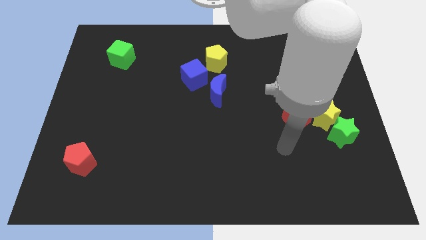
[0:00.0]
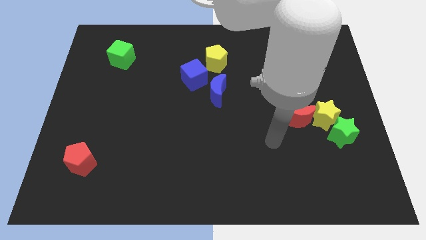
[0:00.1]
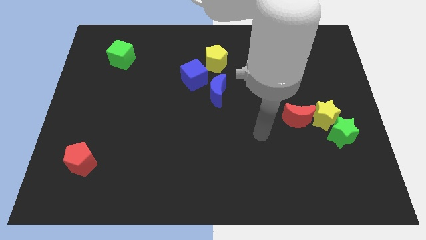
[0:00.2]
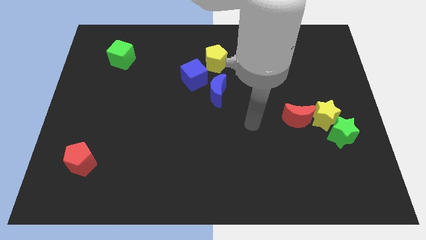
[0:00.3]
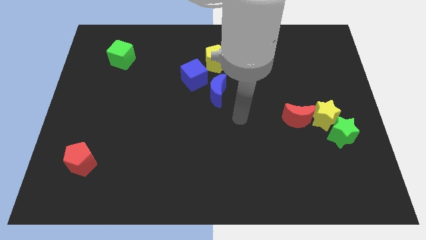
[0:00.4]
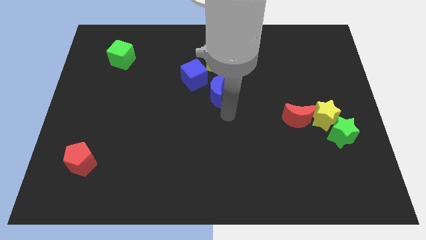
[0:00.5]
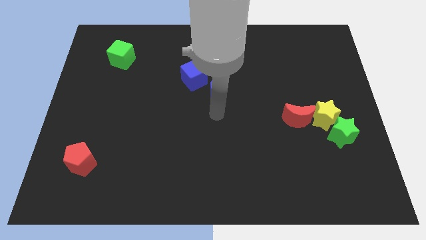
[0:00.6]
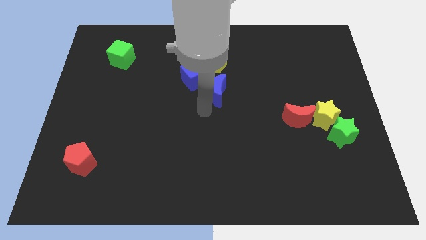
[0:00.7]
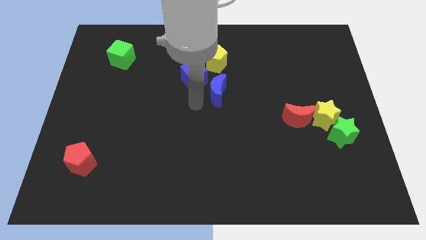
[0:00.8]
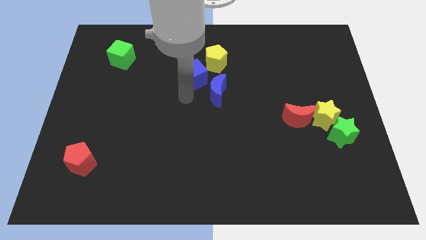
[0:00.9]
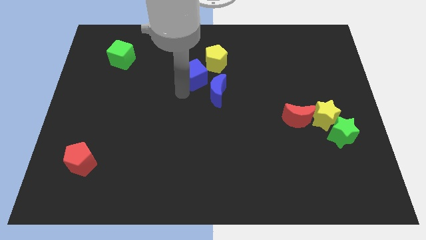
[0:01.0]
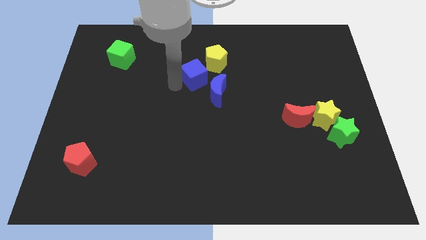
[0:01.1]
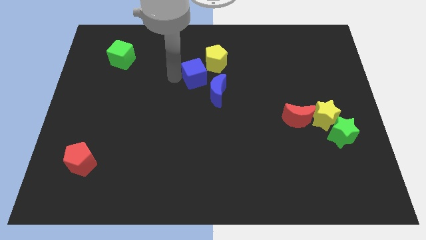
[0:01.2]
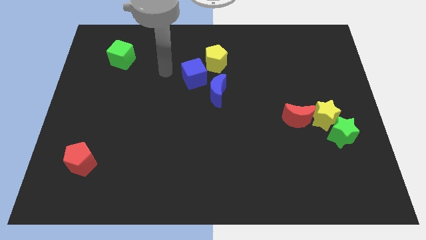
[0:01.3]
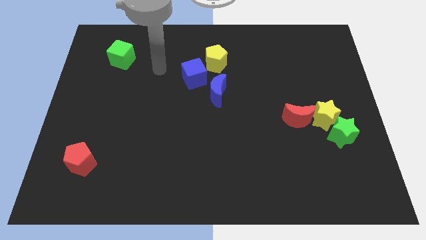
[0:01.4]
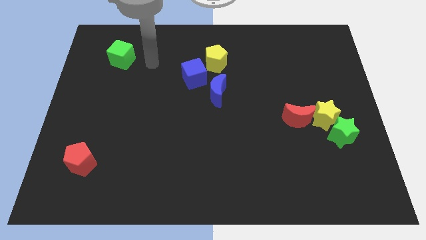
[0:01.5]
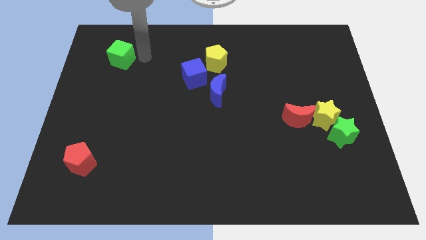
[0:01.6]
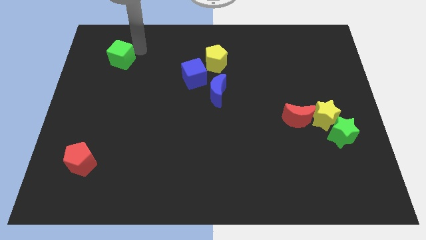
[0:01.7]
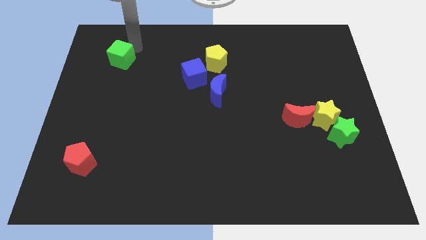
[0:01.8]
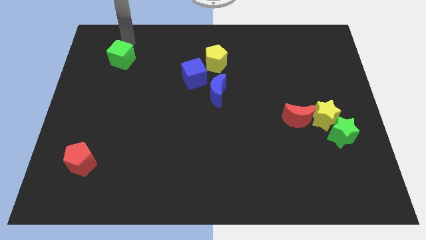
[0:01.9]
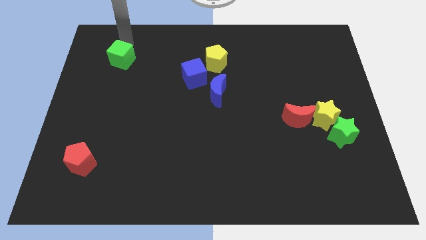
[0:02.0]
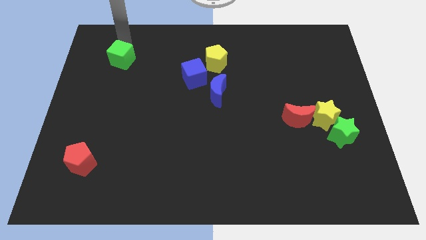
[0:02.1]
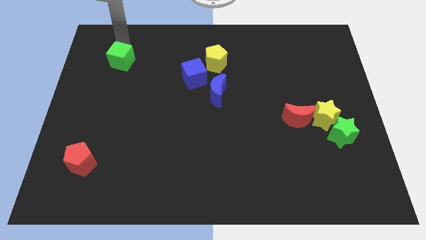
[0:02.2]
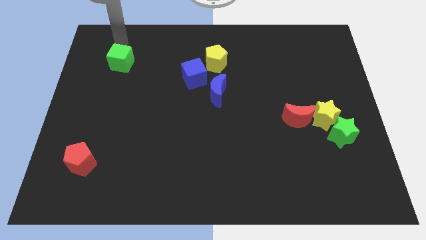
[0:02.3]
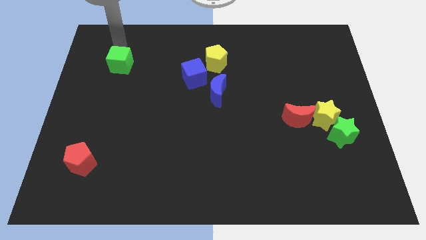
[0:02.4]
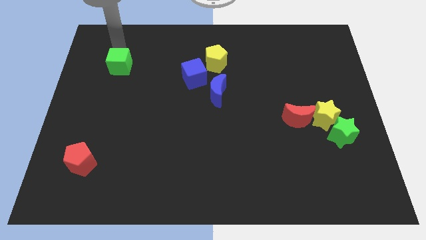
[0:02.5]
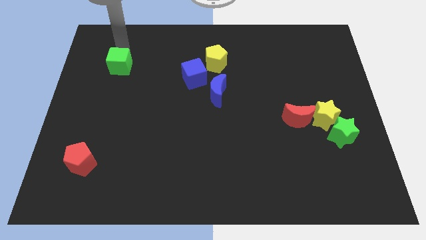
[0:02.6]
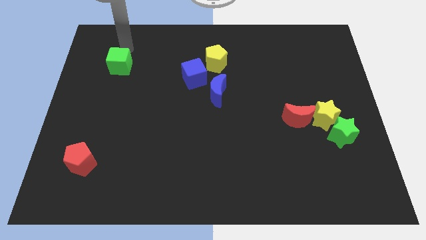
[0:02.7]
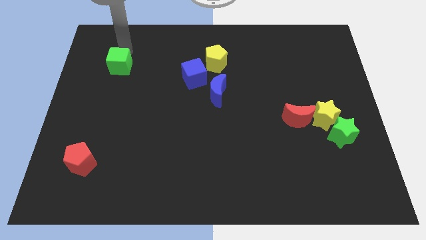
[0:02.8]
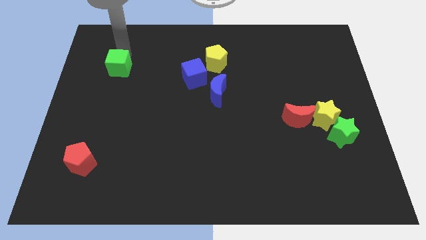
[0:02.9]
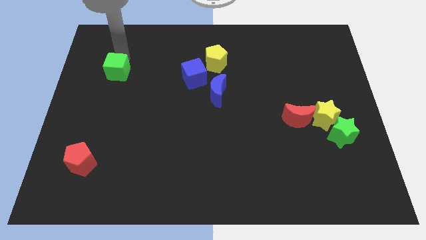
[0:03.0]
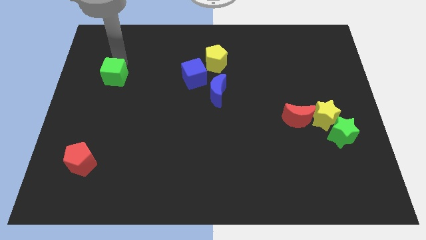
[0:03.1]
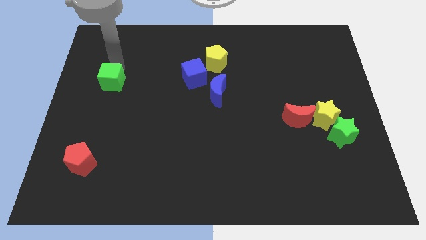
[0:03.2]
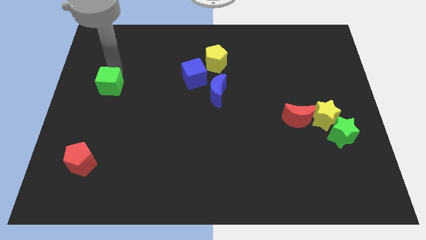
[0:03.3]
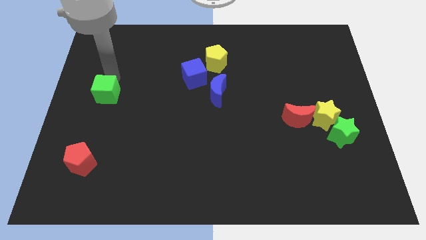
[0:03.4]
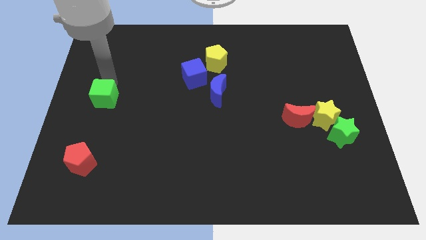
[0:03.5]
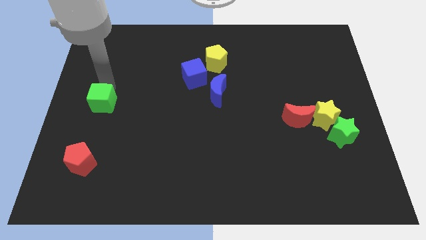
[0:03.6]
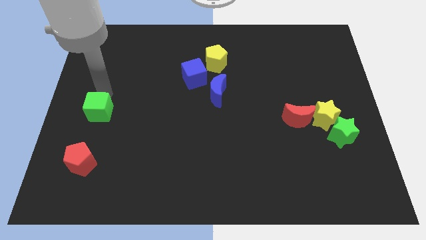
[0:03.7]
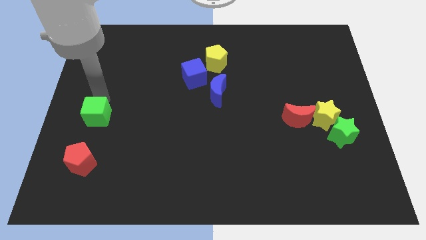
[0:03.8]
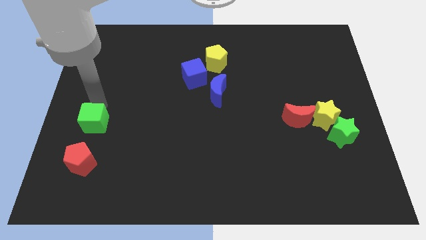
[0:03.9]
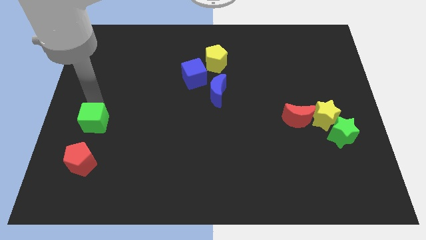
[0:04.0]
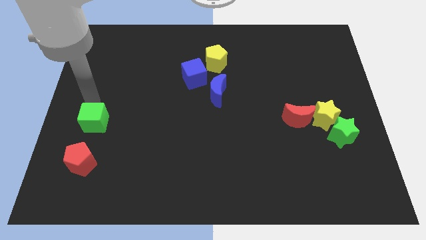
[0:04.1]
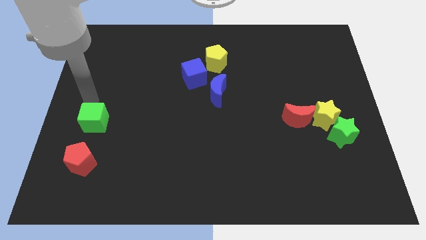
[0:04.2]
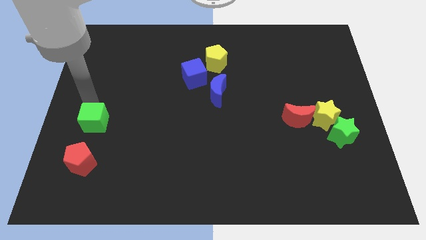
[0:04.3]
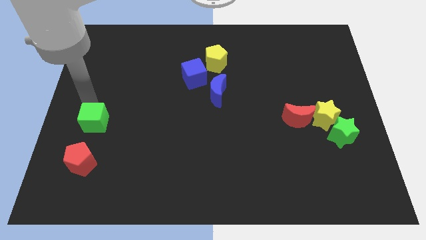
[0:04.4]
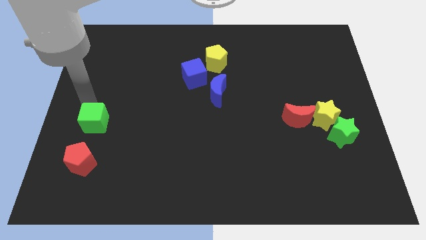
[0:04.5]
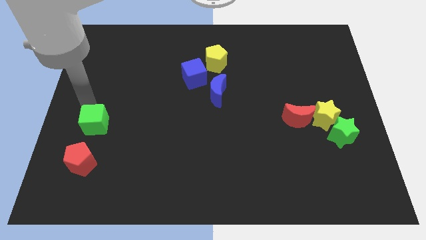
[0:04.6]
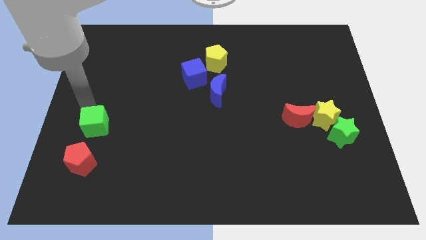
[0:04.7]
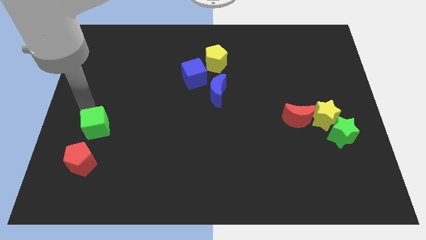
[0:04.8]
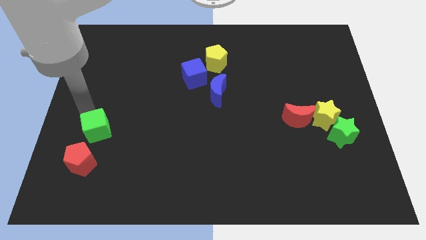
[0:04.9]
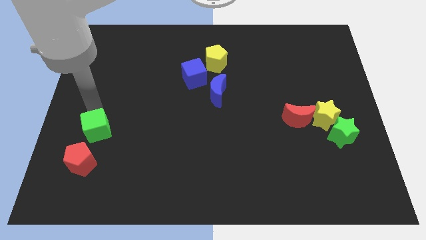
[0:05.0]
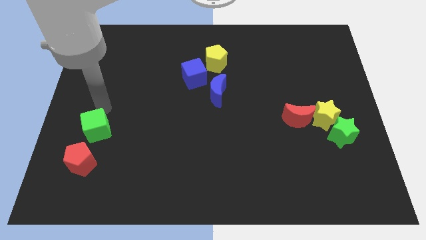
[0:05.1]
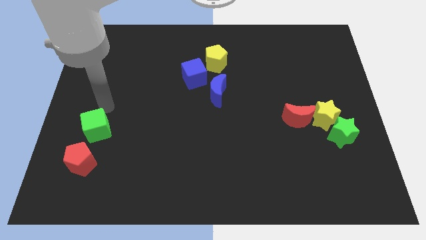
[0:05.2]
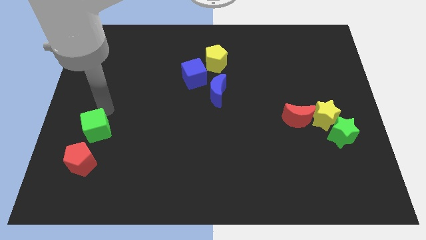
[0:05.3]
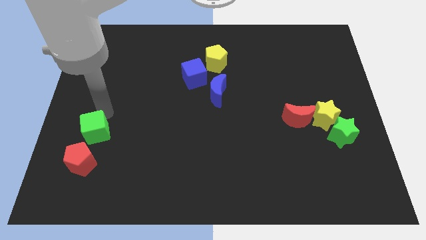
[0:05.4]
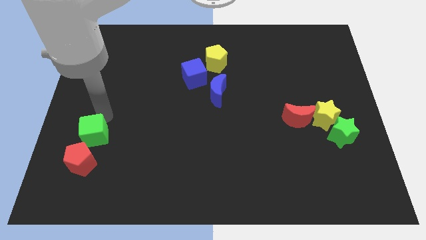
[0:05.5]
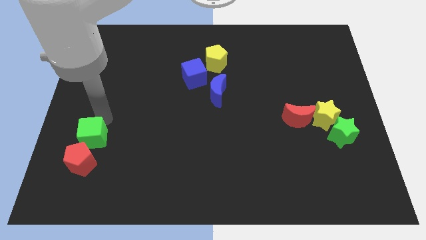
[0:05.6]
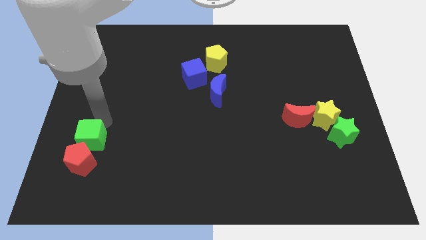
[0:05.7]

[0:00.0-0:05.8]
push the green cube close to the red pentagon

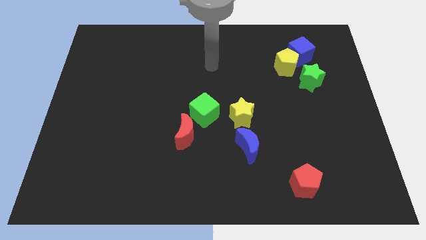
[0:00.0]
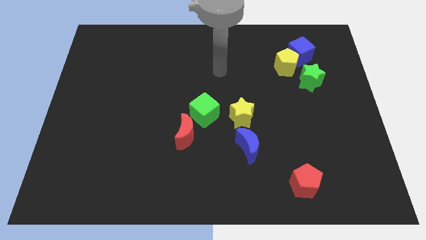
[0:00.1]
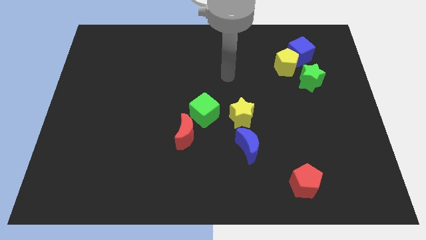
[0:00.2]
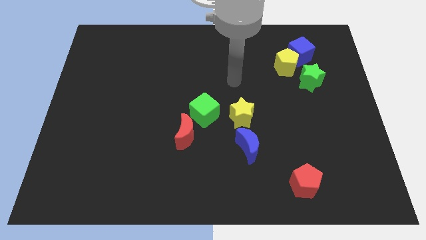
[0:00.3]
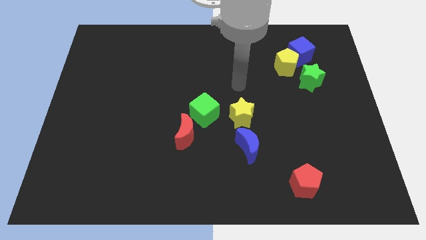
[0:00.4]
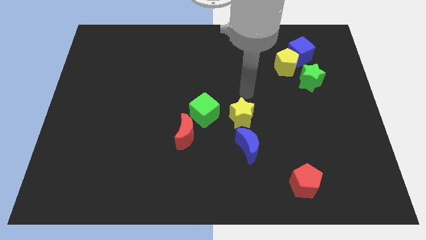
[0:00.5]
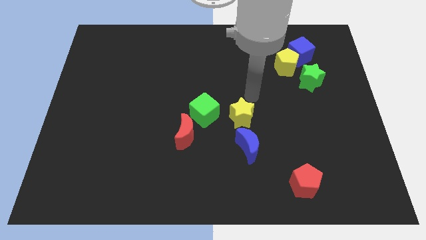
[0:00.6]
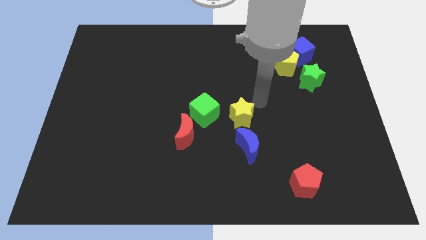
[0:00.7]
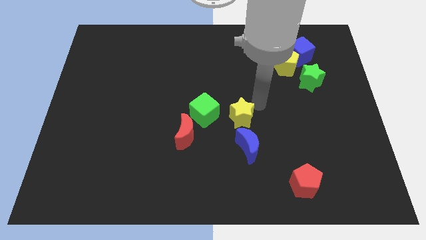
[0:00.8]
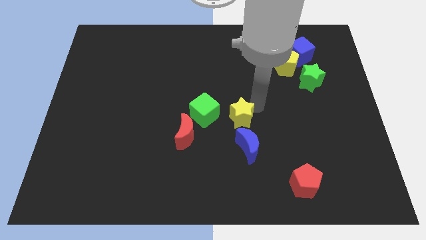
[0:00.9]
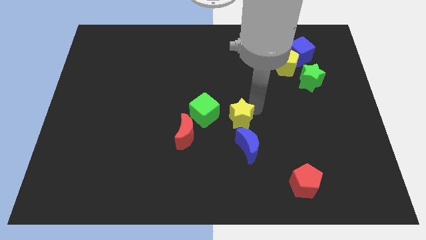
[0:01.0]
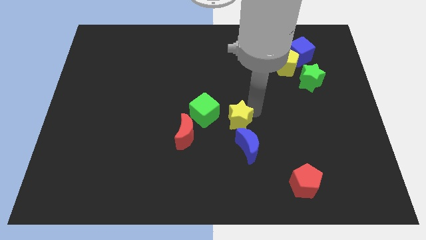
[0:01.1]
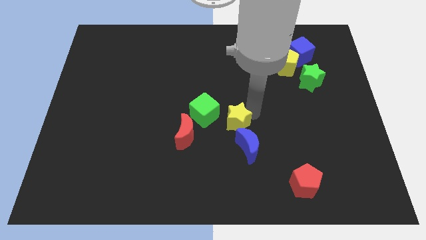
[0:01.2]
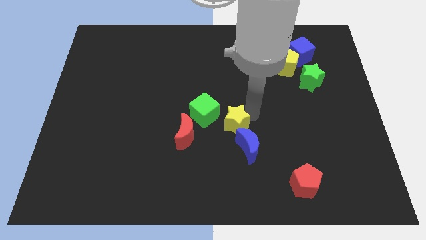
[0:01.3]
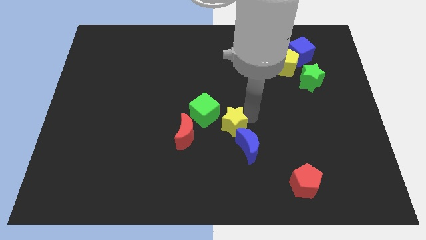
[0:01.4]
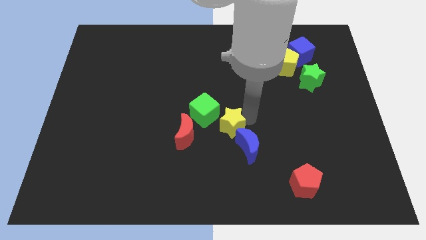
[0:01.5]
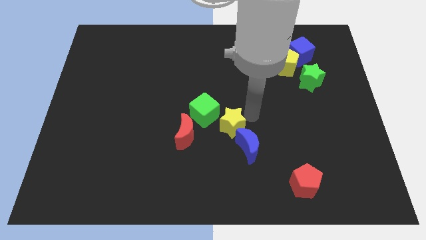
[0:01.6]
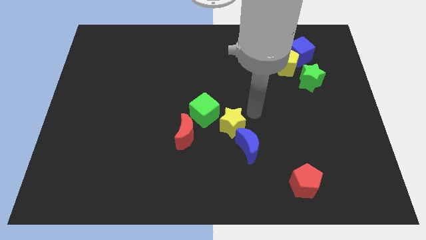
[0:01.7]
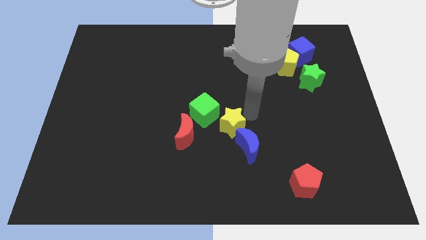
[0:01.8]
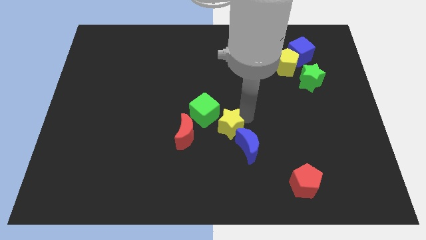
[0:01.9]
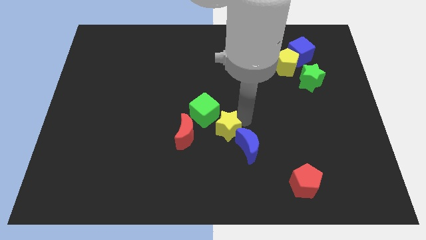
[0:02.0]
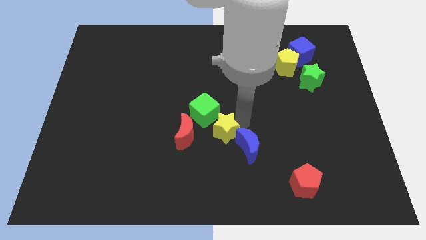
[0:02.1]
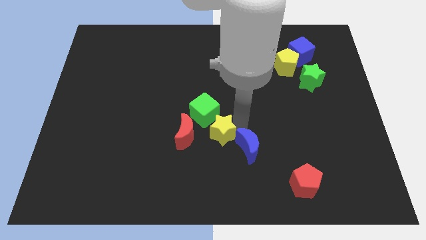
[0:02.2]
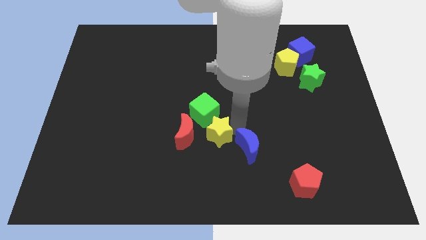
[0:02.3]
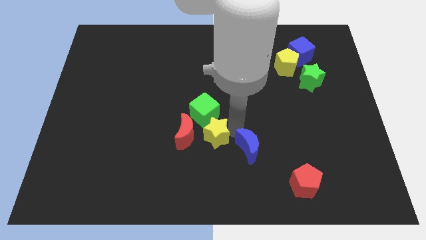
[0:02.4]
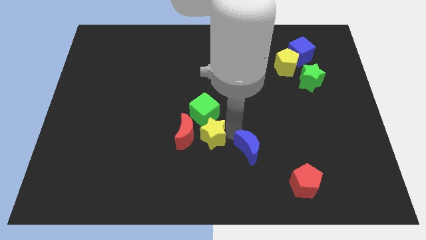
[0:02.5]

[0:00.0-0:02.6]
push the yellow star to the red moon
